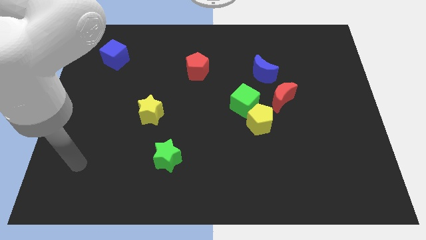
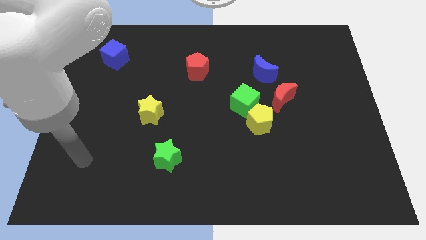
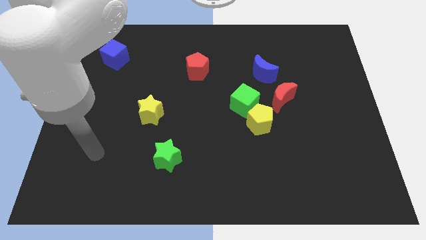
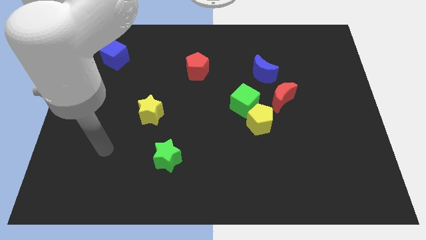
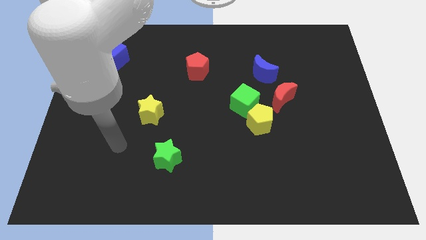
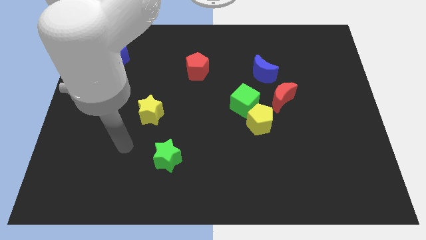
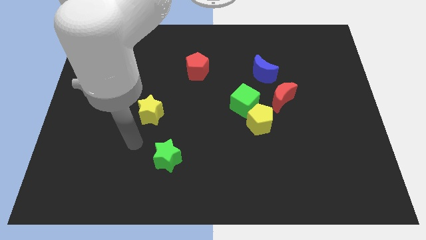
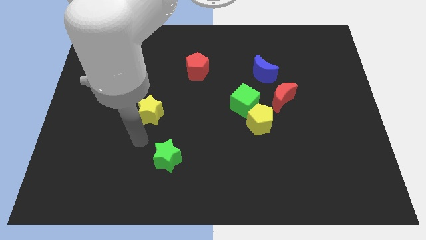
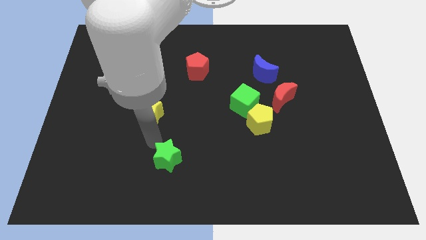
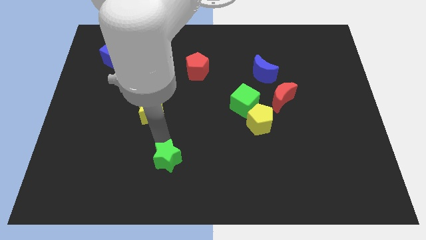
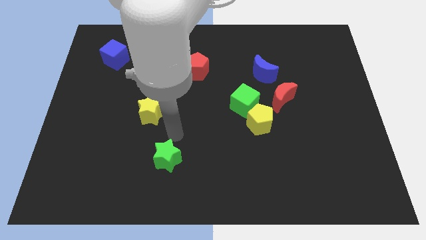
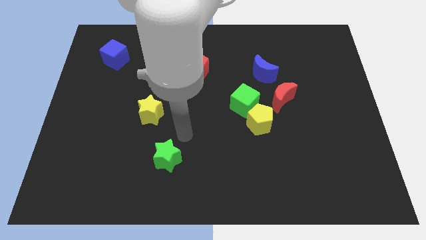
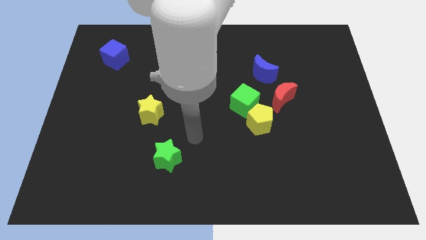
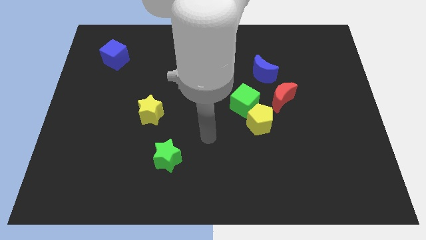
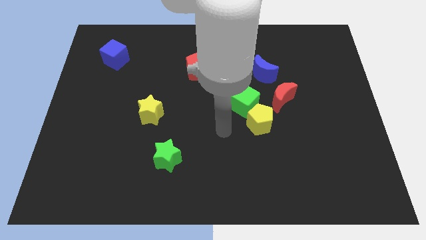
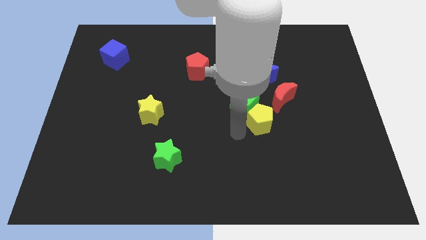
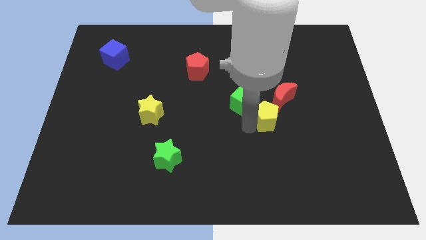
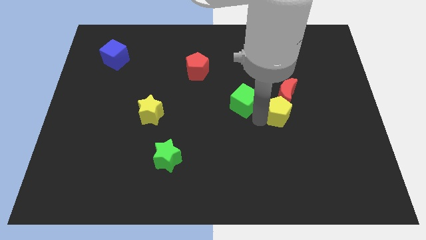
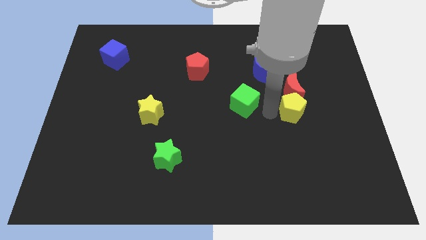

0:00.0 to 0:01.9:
pull the green cube apart from the yellow pentagon and red moon

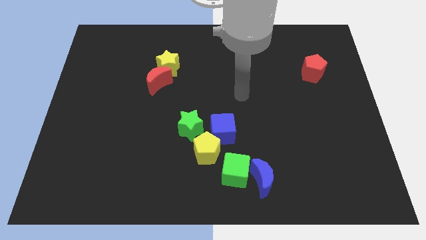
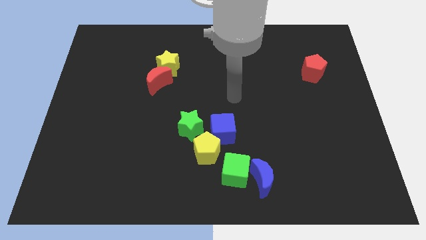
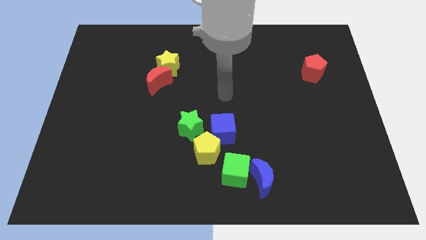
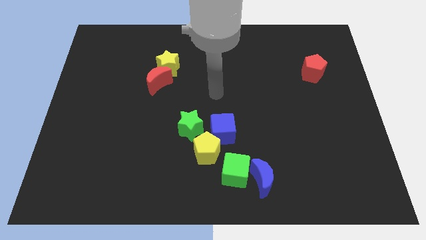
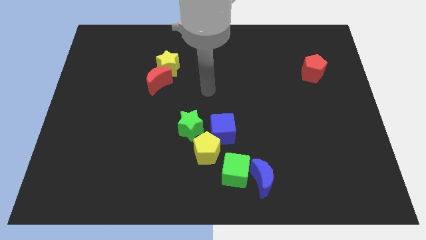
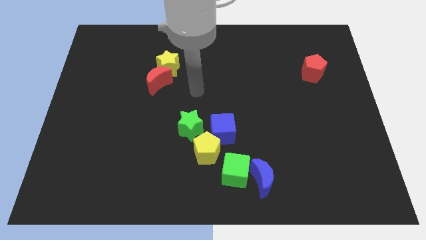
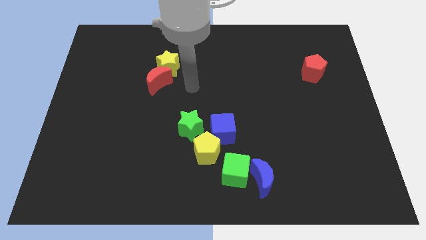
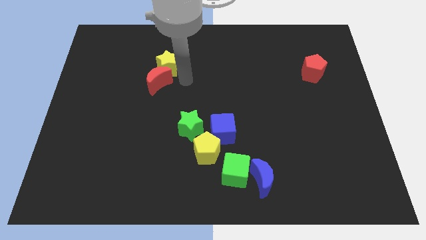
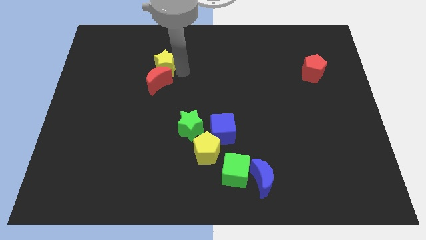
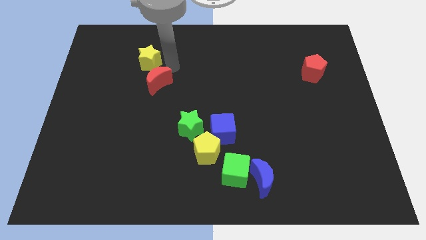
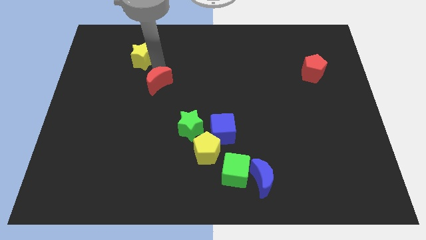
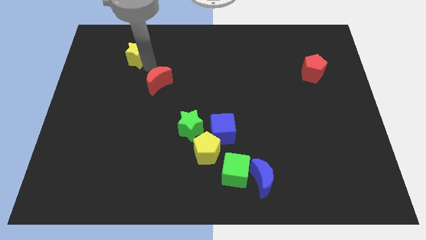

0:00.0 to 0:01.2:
pull the red moon apart from the yellow star

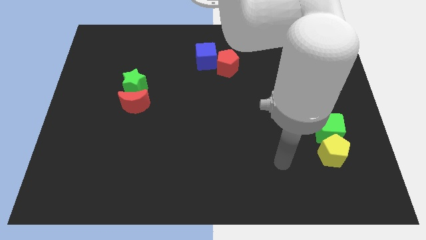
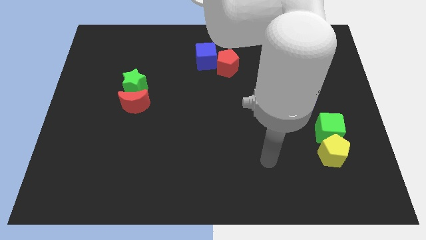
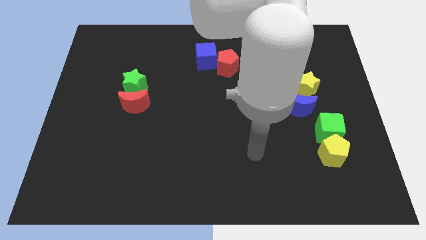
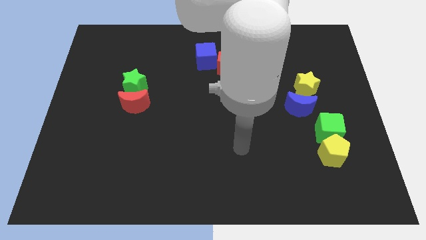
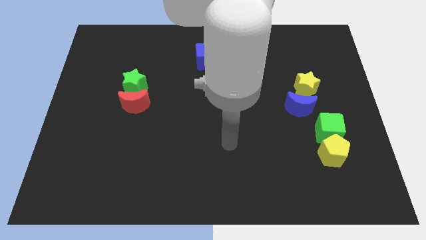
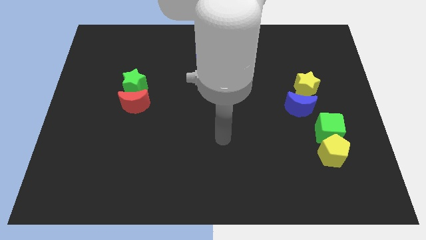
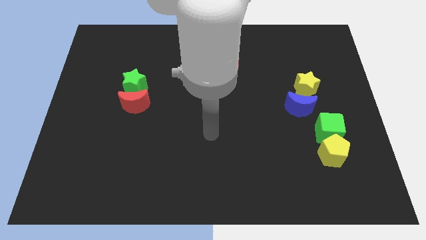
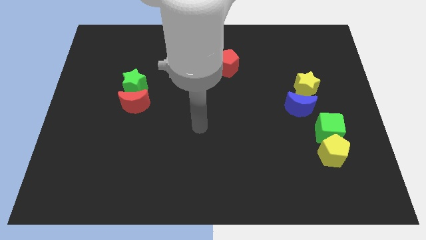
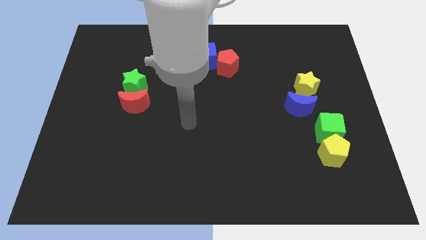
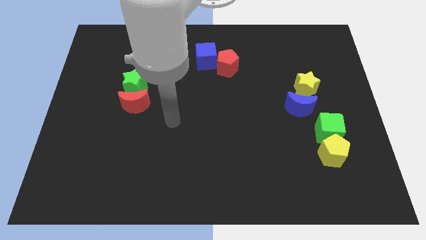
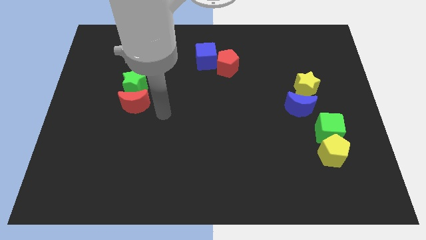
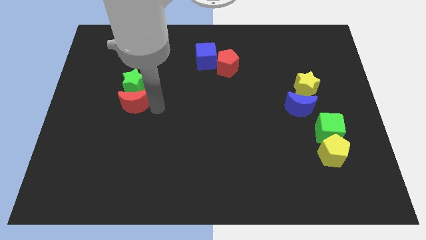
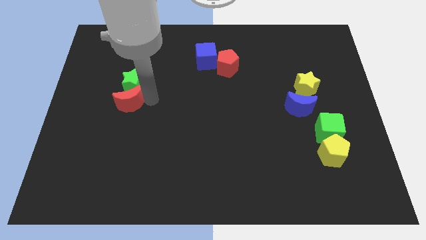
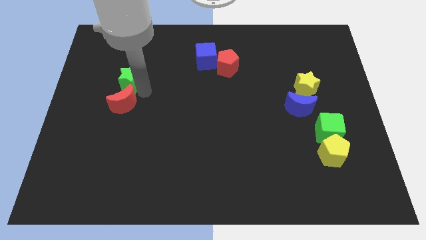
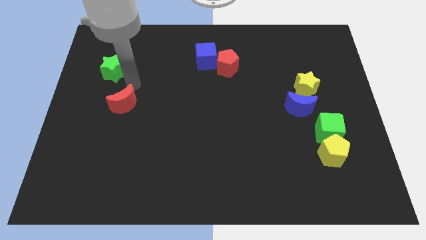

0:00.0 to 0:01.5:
separate the red moon from the green star

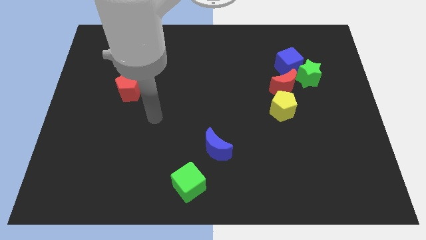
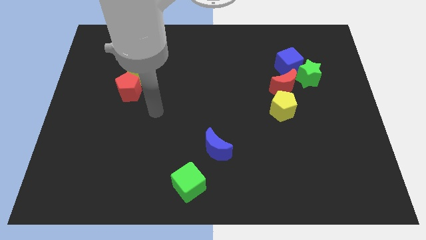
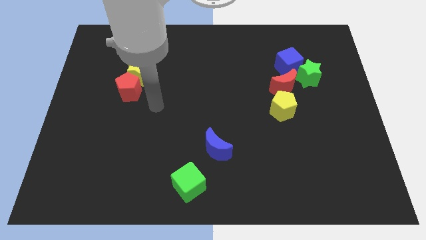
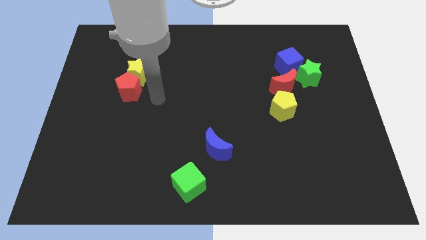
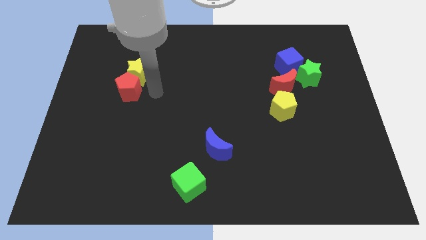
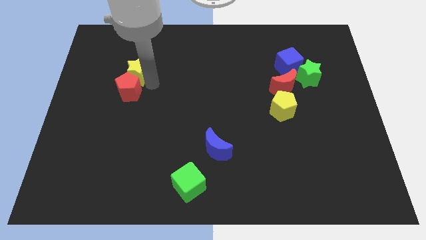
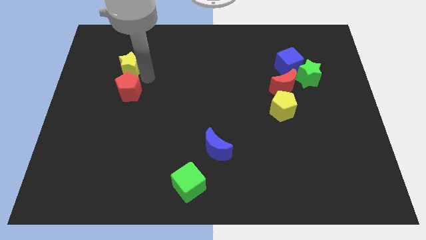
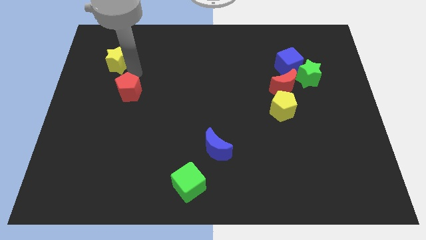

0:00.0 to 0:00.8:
pull the red pentagon apart from the yellow star

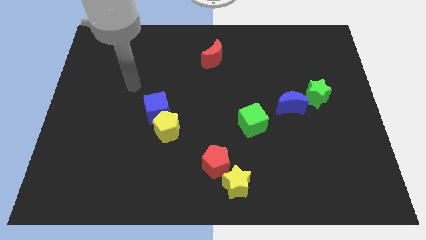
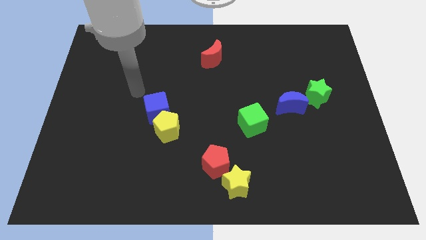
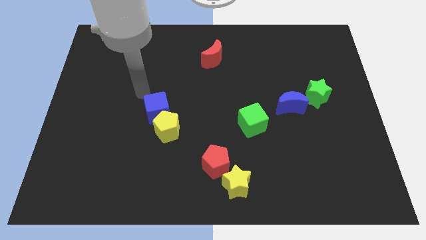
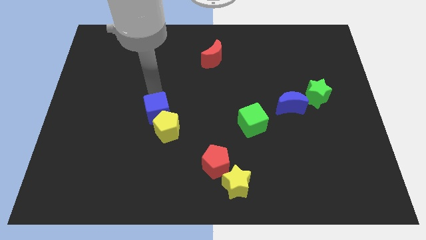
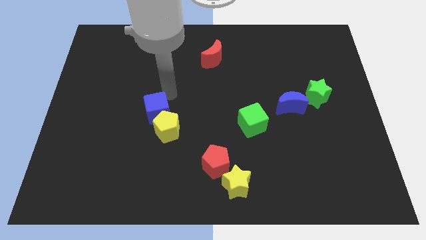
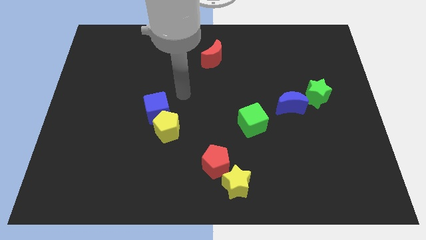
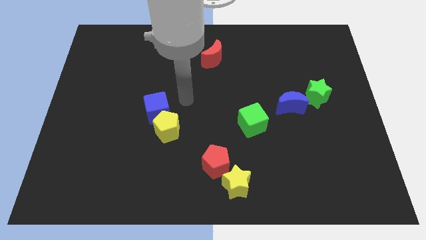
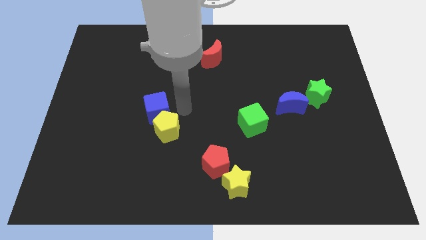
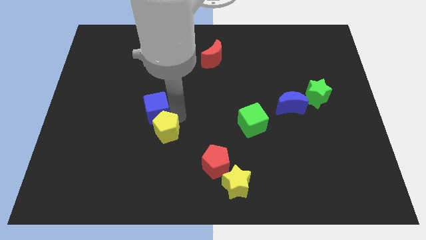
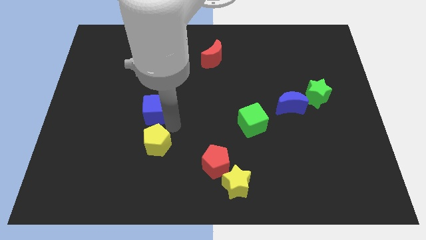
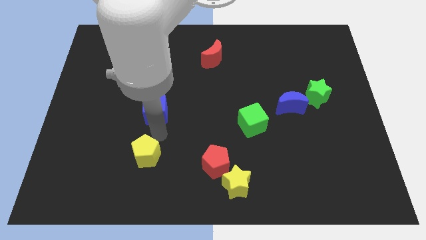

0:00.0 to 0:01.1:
separate the blue cube from the yellow pentagon

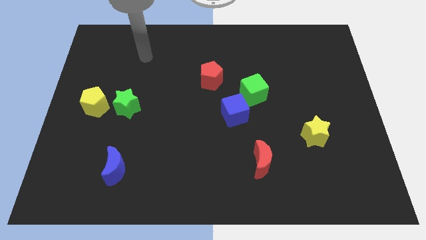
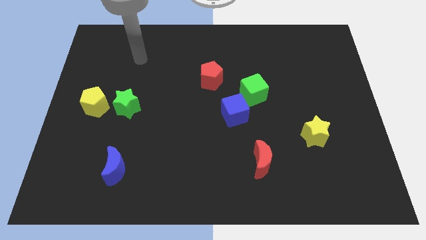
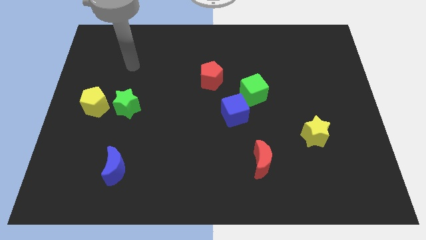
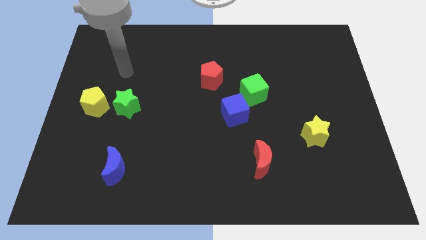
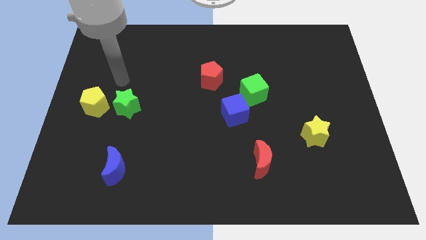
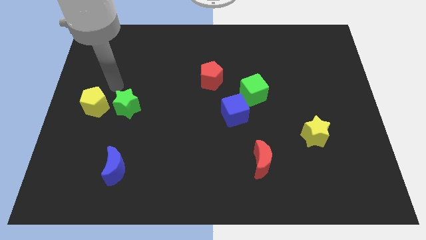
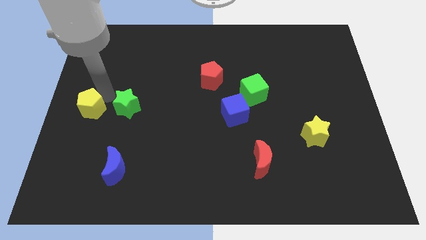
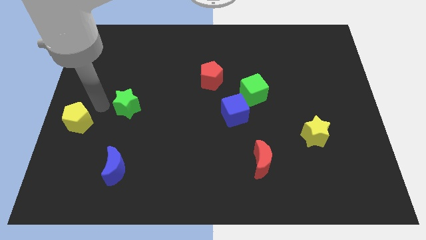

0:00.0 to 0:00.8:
pull the green star apart from the yellow pentagon

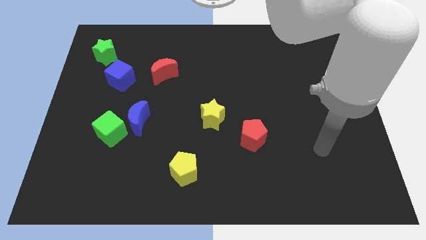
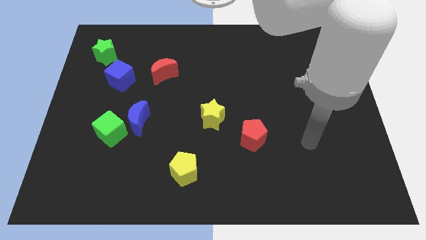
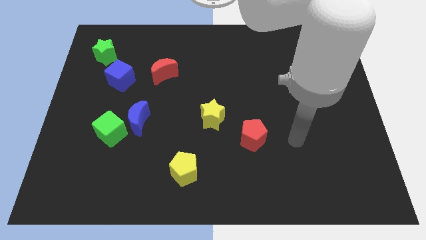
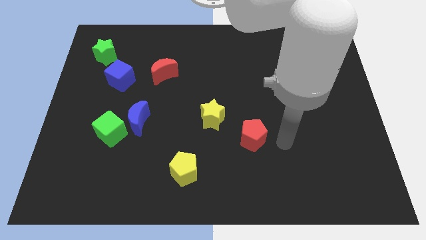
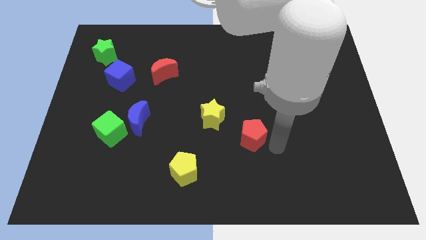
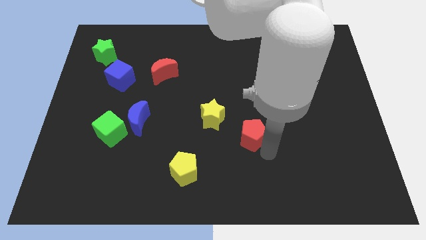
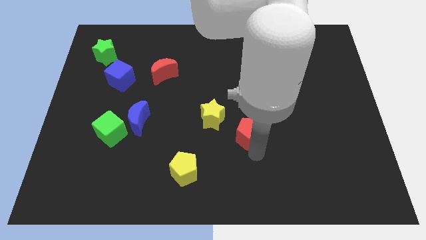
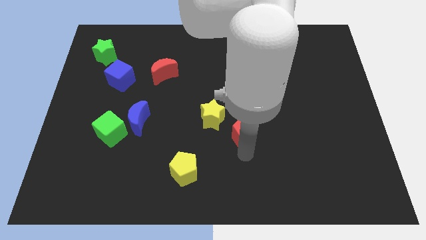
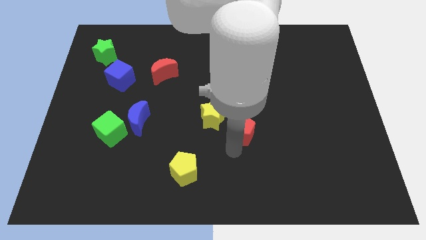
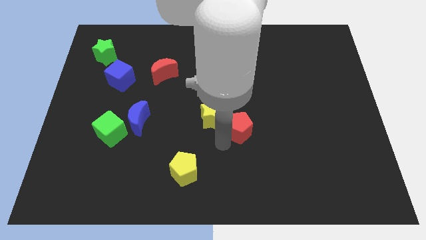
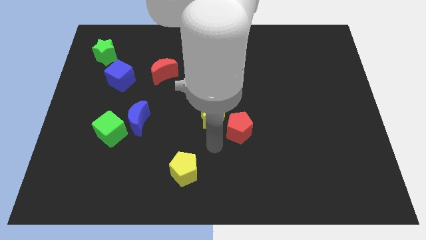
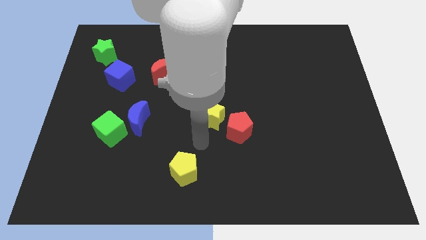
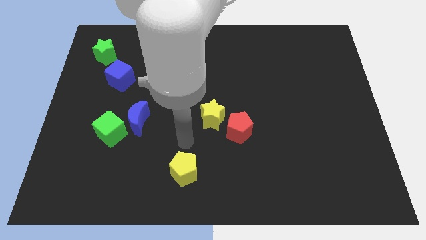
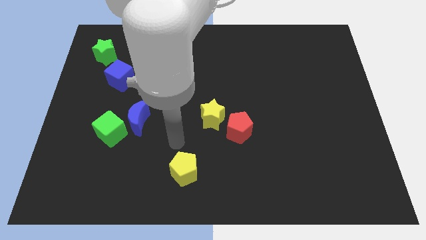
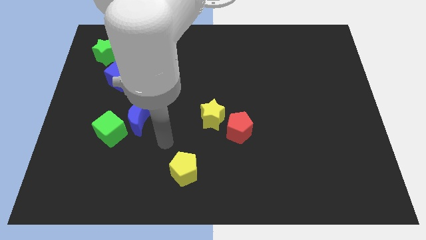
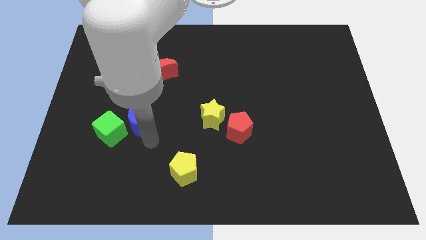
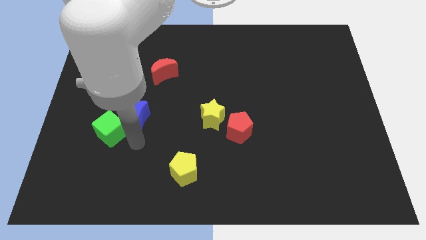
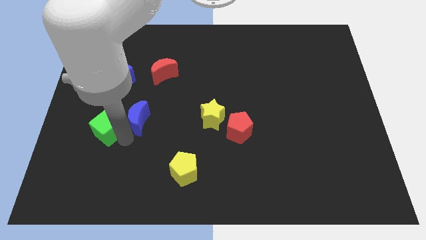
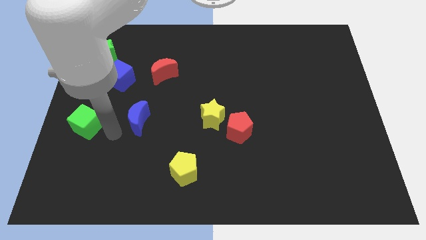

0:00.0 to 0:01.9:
move the blue moon away from the green cube
